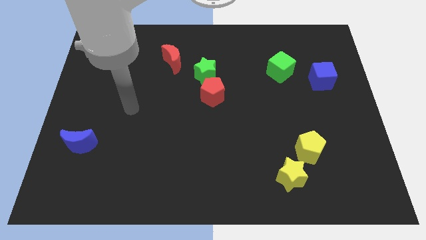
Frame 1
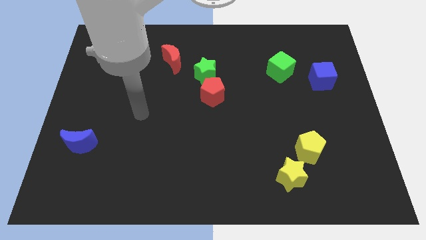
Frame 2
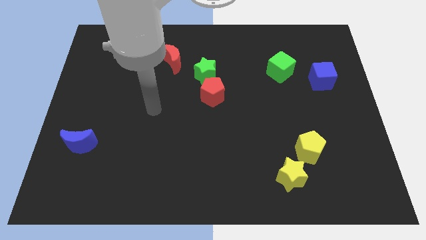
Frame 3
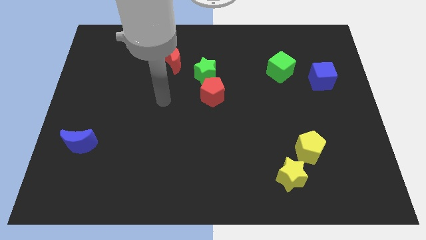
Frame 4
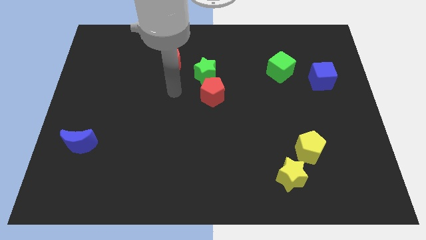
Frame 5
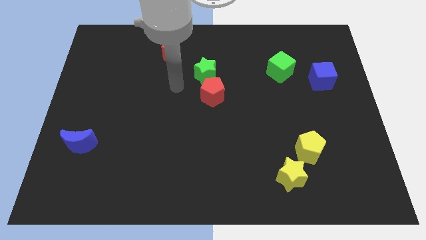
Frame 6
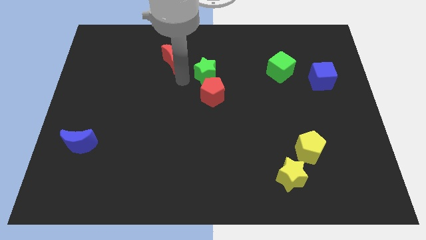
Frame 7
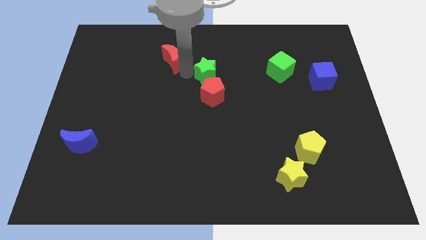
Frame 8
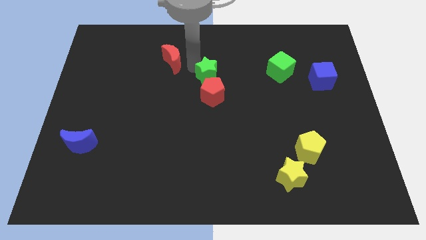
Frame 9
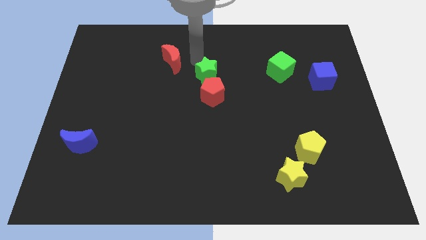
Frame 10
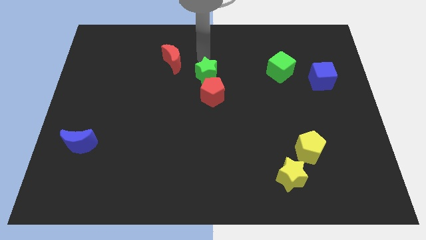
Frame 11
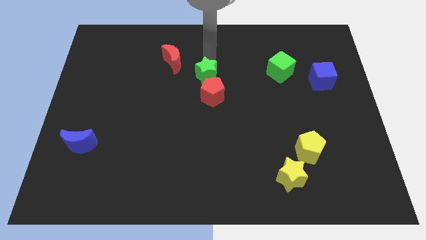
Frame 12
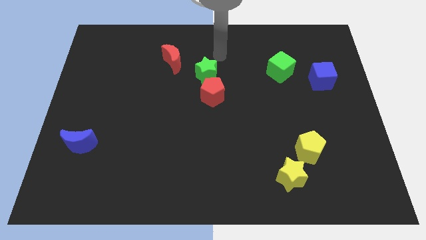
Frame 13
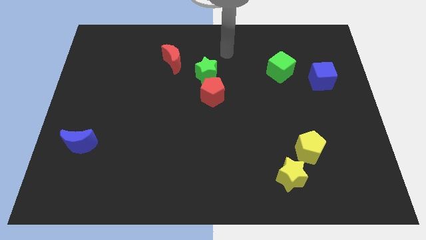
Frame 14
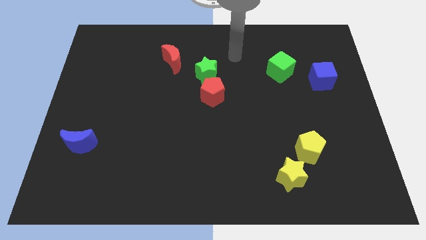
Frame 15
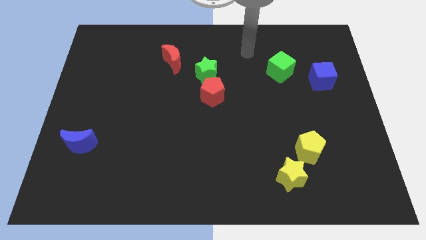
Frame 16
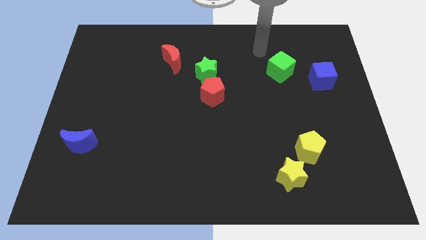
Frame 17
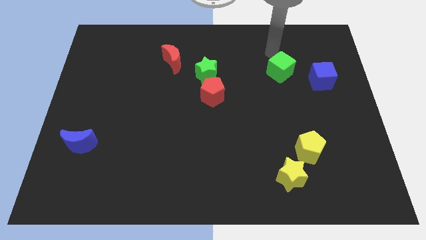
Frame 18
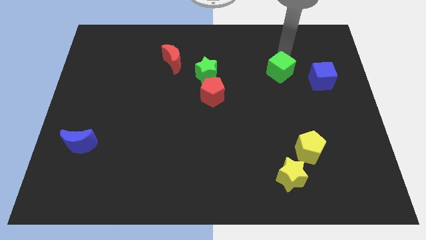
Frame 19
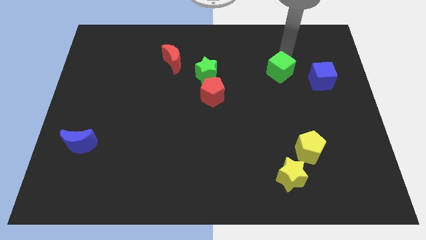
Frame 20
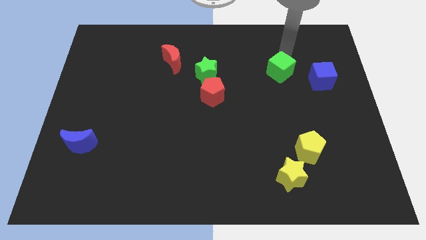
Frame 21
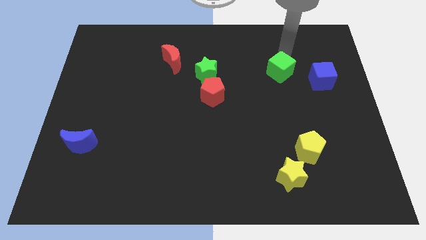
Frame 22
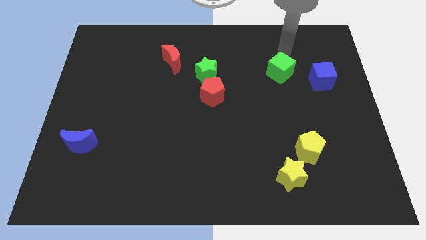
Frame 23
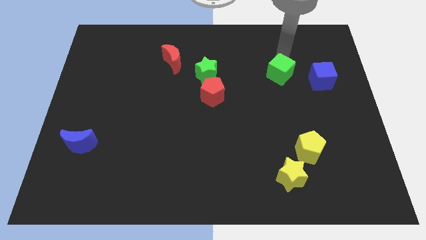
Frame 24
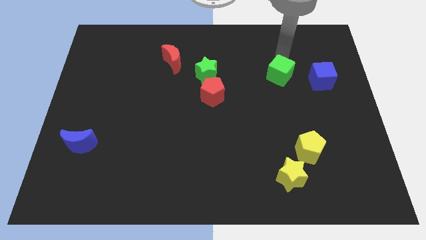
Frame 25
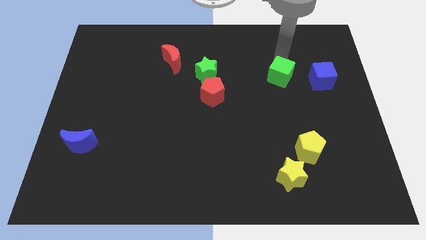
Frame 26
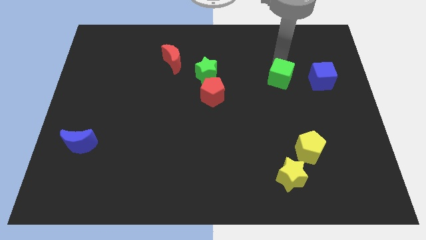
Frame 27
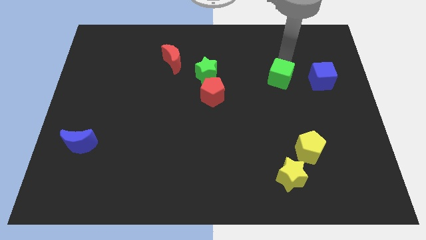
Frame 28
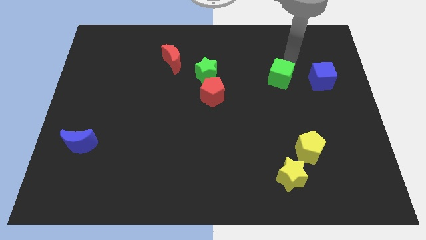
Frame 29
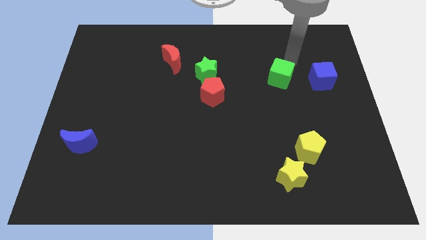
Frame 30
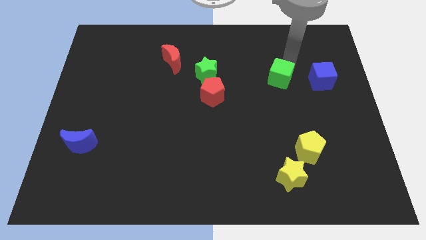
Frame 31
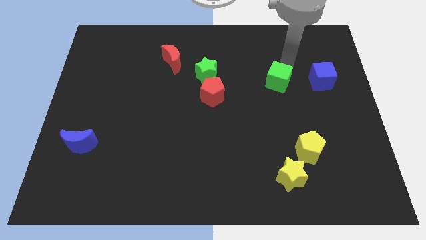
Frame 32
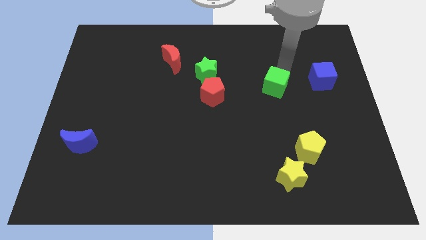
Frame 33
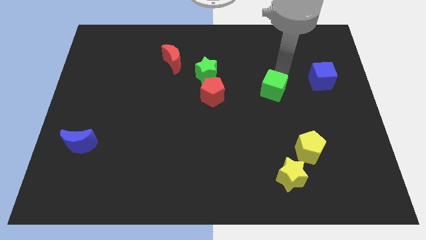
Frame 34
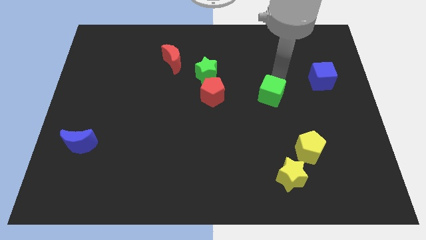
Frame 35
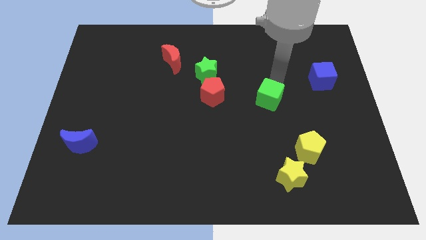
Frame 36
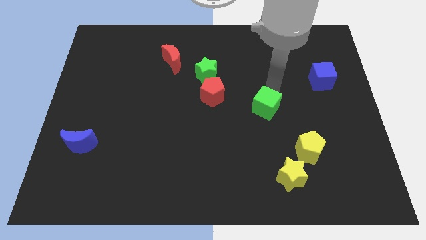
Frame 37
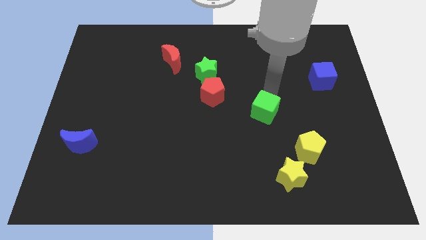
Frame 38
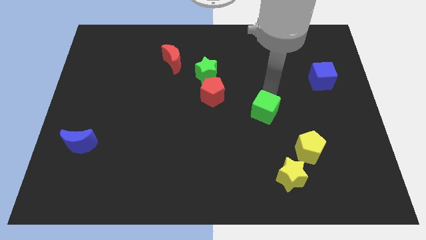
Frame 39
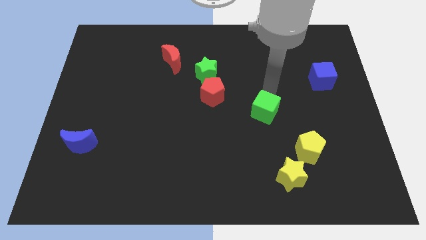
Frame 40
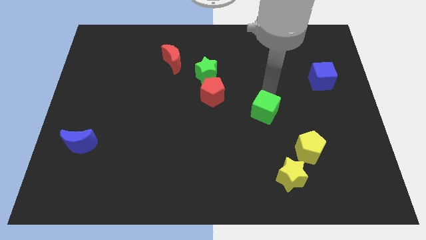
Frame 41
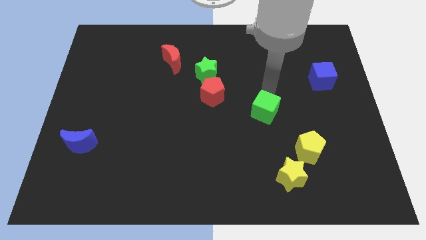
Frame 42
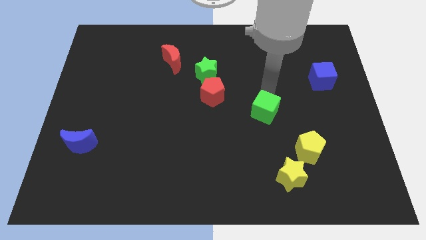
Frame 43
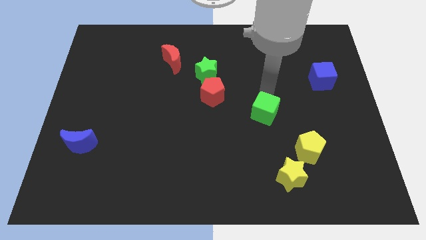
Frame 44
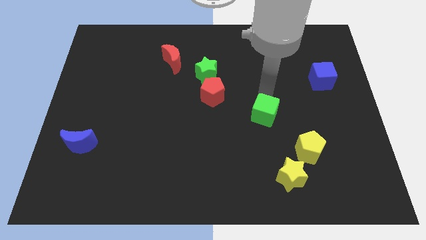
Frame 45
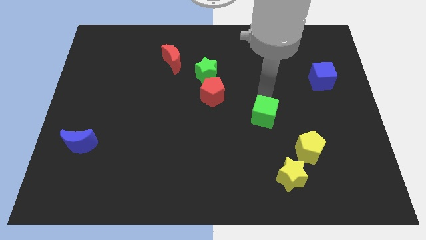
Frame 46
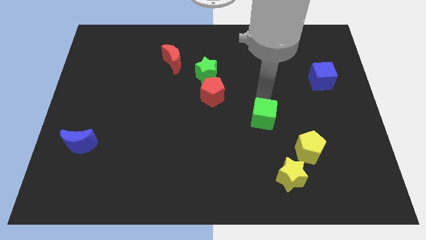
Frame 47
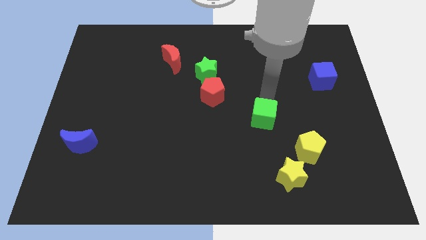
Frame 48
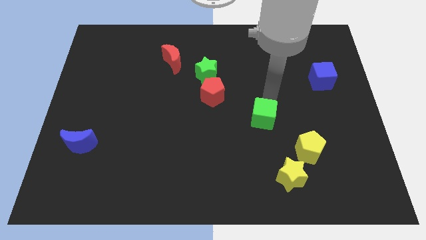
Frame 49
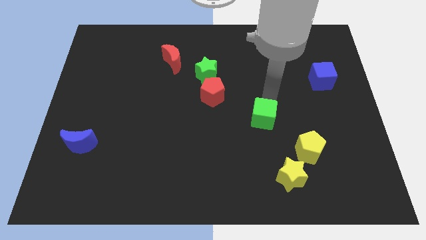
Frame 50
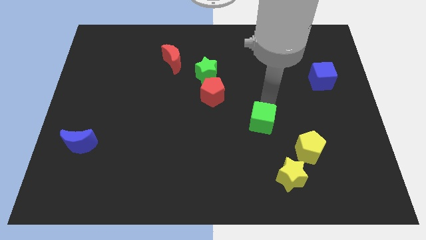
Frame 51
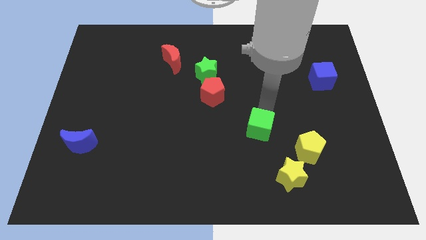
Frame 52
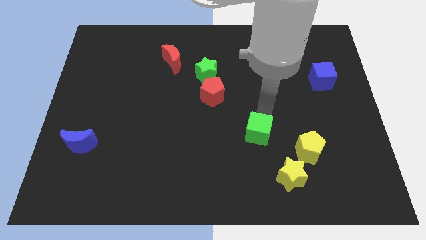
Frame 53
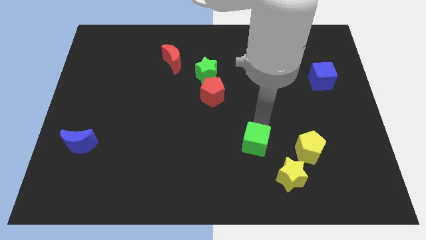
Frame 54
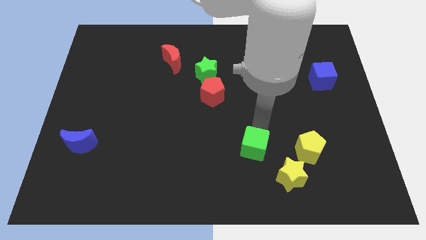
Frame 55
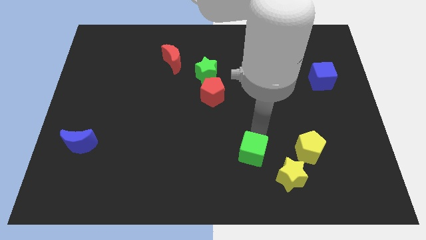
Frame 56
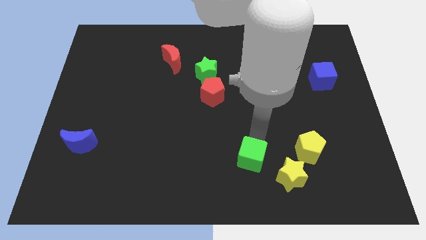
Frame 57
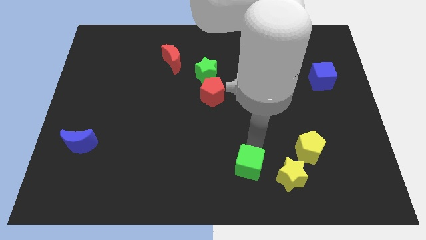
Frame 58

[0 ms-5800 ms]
slide the green cube to the bottom
